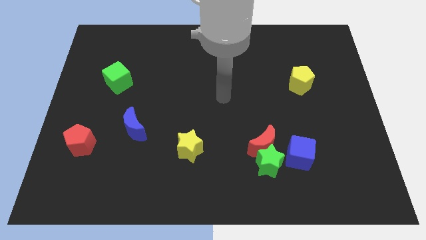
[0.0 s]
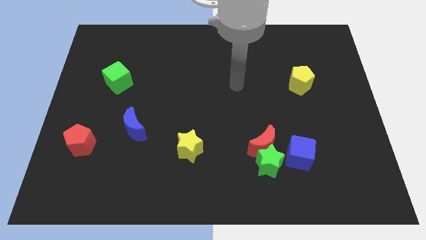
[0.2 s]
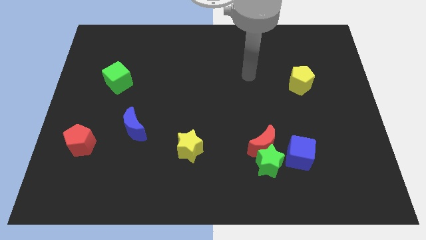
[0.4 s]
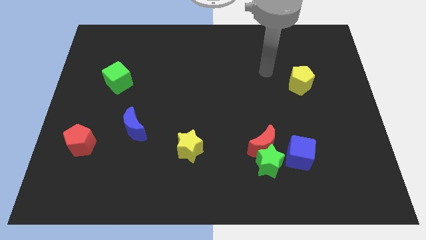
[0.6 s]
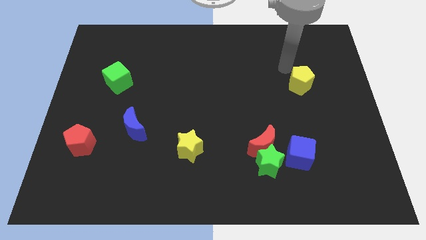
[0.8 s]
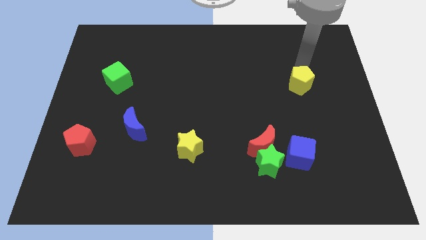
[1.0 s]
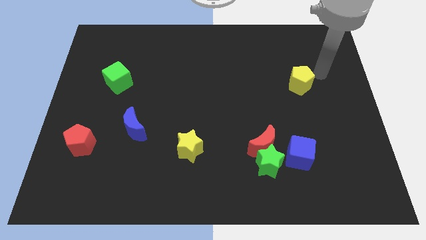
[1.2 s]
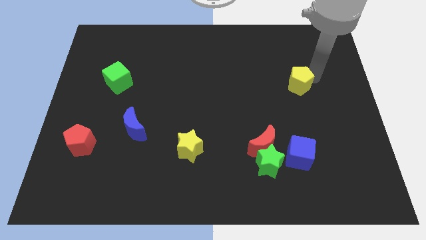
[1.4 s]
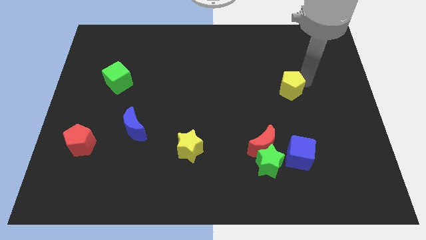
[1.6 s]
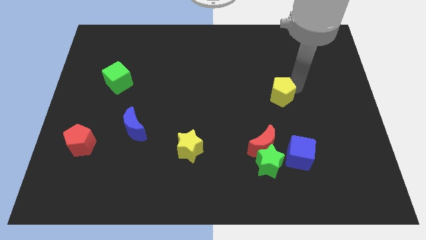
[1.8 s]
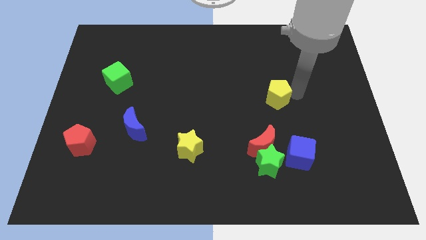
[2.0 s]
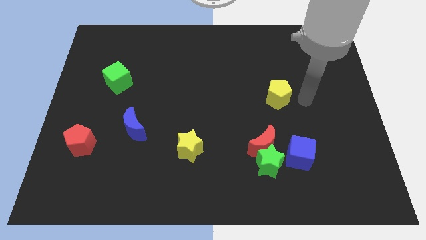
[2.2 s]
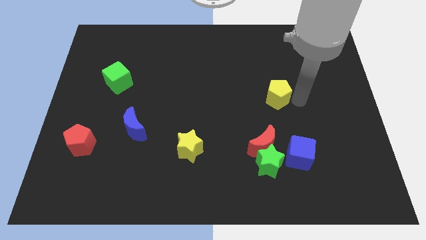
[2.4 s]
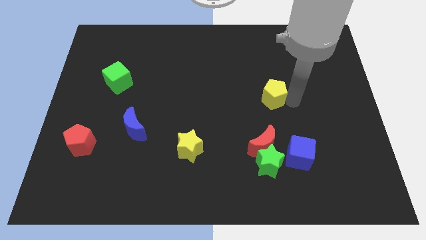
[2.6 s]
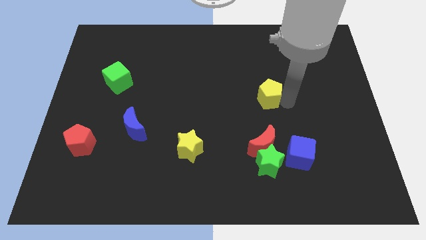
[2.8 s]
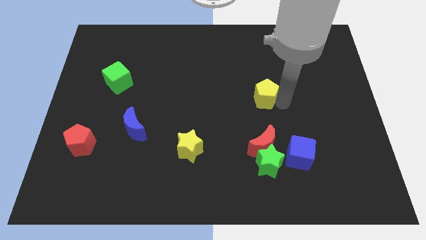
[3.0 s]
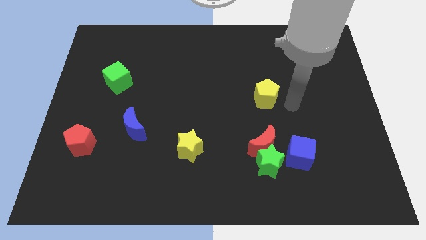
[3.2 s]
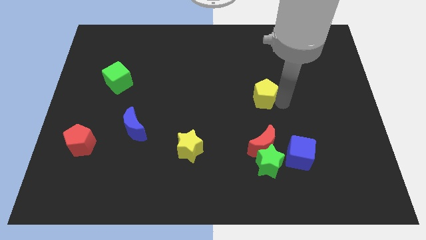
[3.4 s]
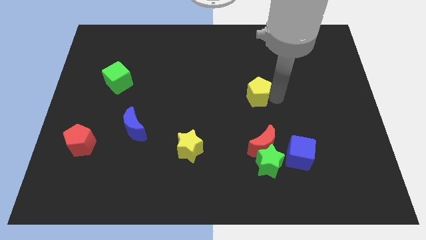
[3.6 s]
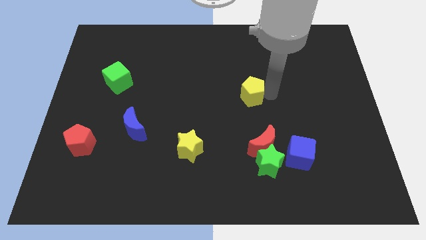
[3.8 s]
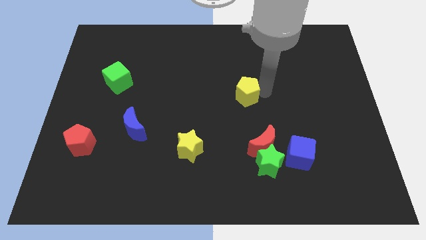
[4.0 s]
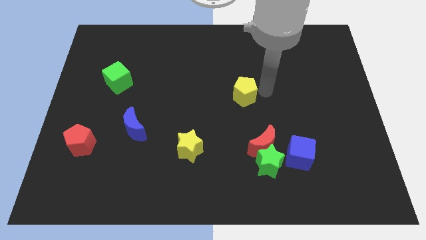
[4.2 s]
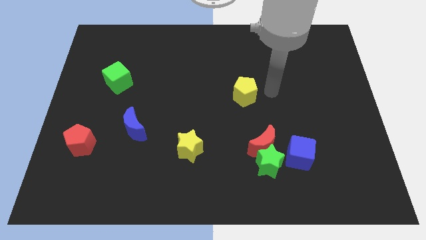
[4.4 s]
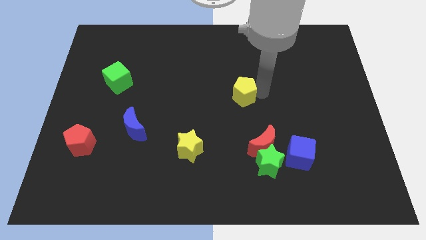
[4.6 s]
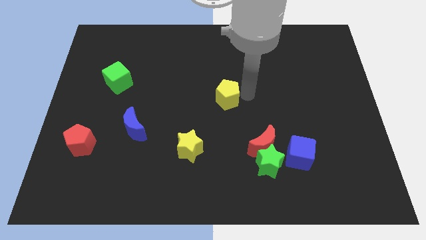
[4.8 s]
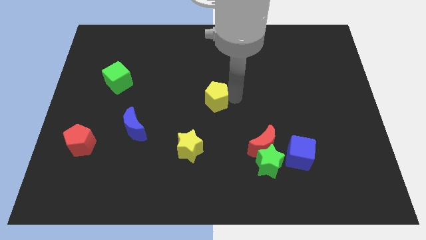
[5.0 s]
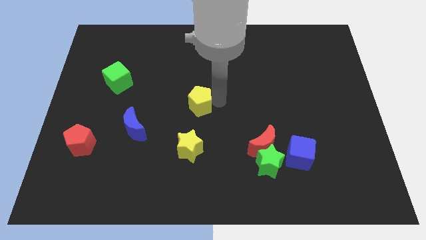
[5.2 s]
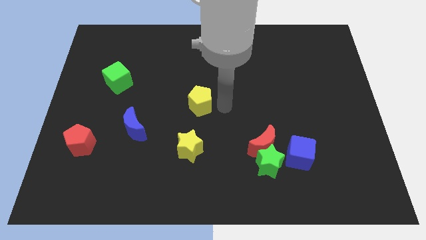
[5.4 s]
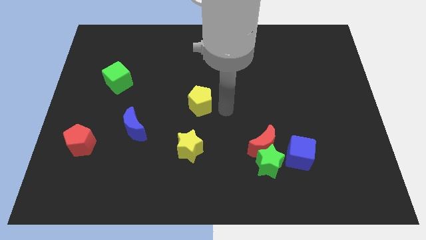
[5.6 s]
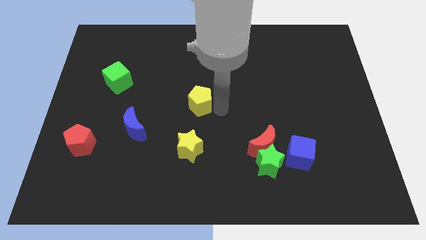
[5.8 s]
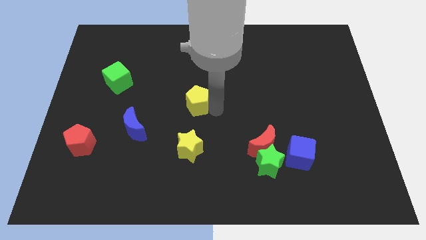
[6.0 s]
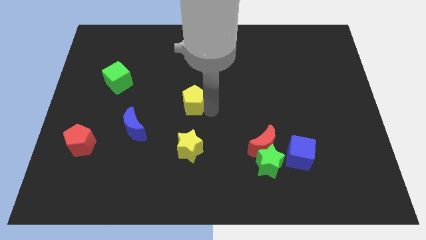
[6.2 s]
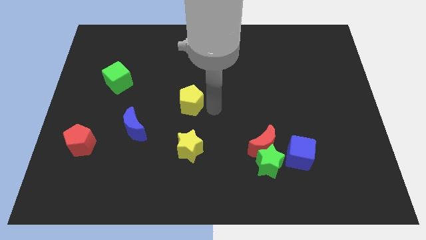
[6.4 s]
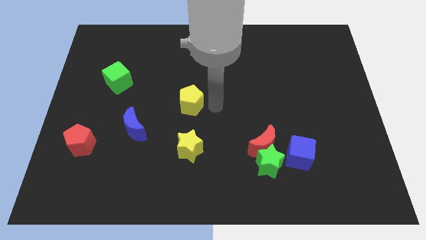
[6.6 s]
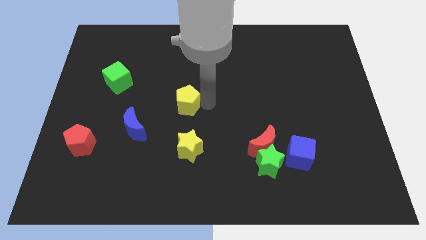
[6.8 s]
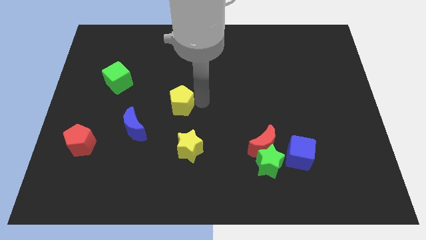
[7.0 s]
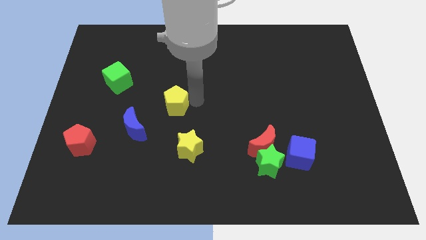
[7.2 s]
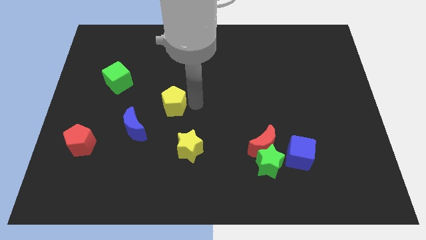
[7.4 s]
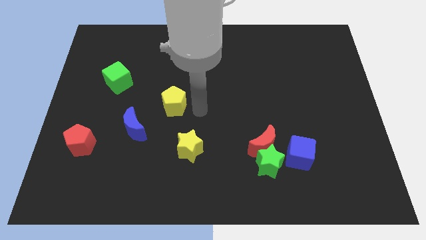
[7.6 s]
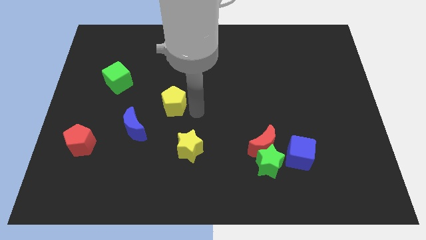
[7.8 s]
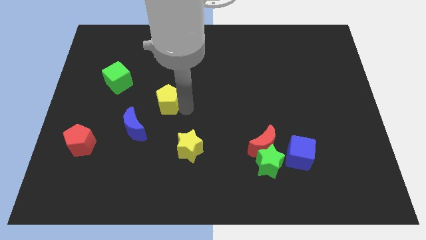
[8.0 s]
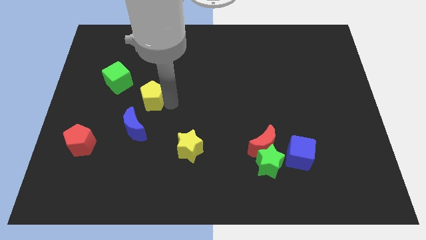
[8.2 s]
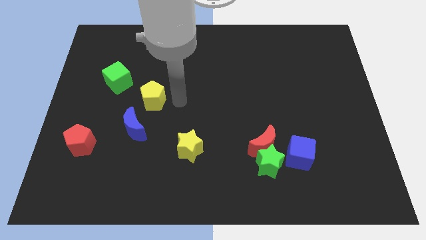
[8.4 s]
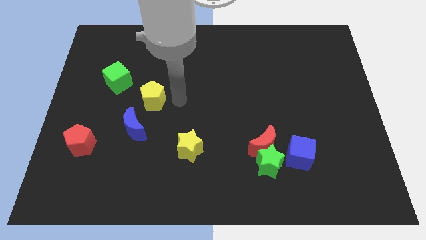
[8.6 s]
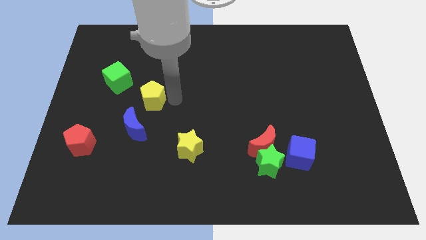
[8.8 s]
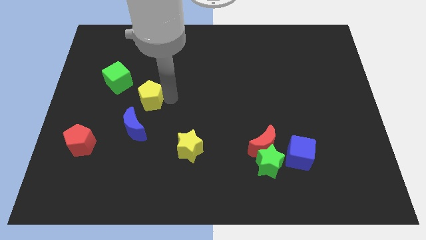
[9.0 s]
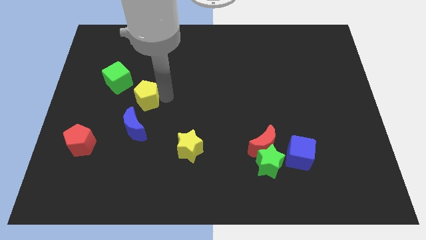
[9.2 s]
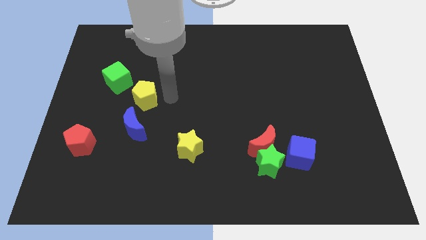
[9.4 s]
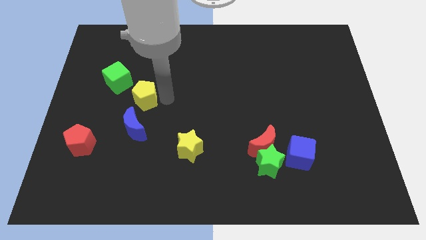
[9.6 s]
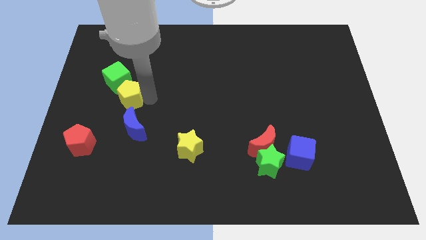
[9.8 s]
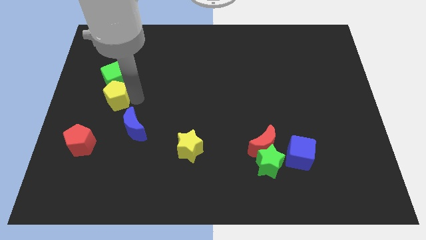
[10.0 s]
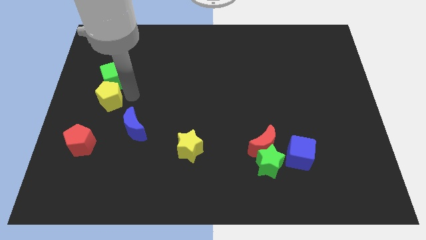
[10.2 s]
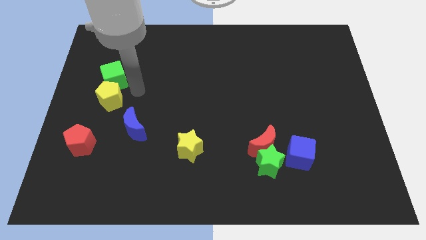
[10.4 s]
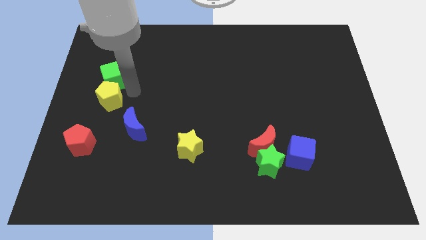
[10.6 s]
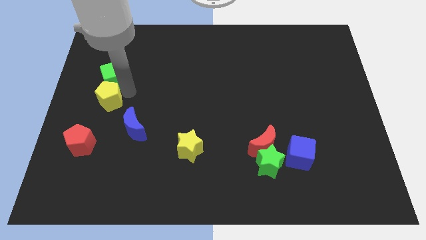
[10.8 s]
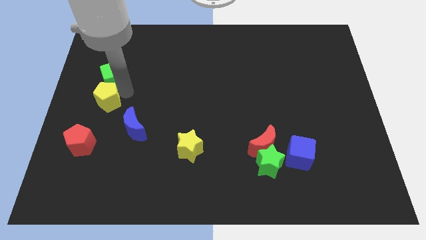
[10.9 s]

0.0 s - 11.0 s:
slide the yellow pentagon to the center left

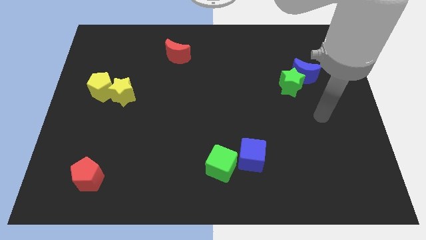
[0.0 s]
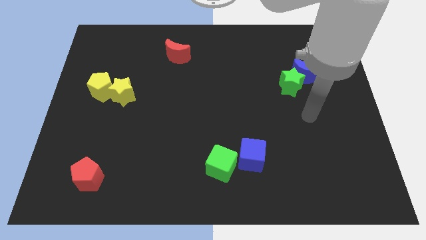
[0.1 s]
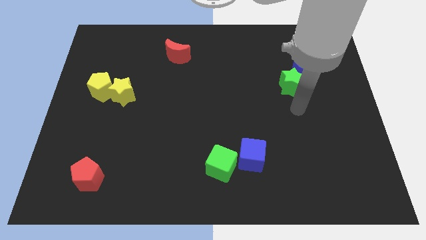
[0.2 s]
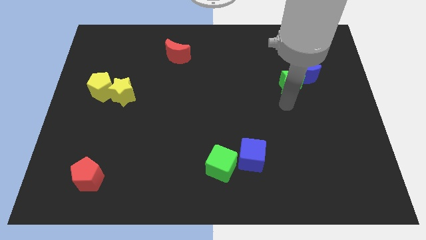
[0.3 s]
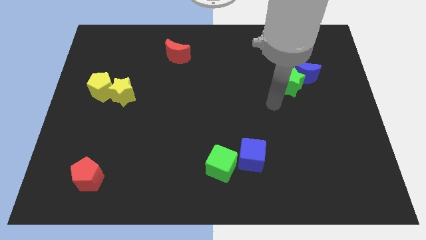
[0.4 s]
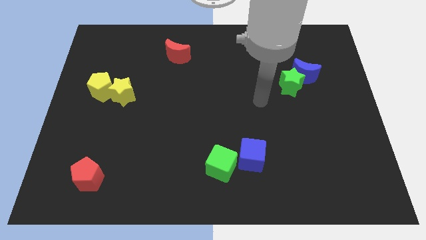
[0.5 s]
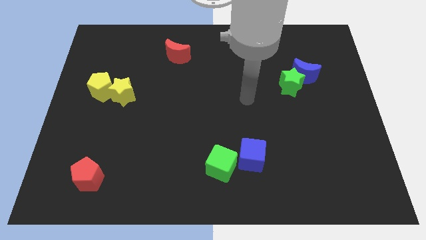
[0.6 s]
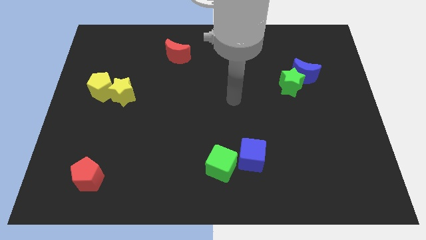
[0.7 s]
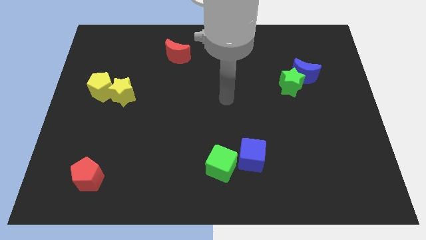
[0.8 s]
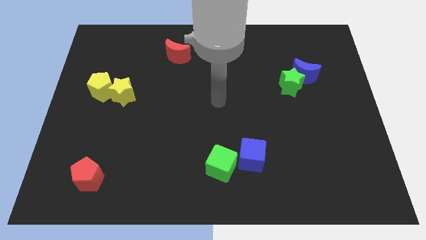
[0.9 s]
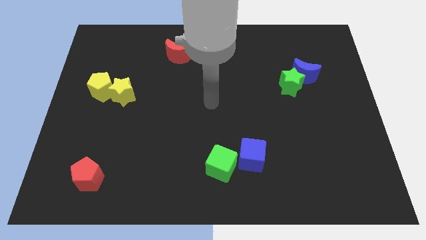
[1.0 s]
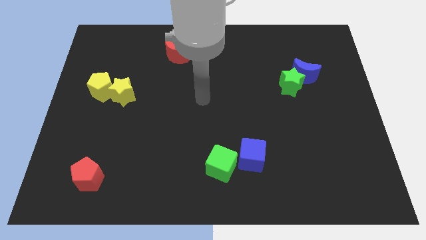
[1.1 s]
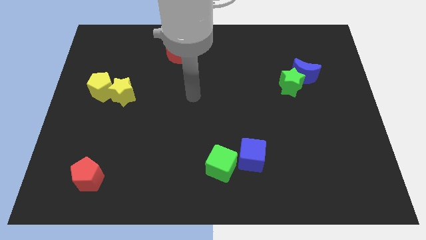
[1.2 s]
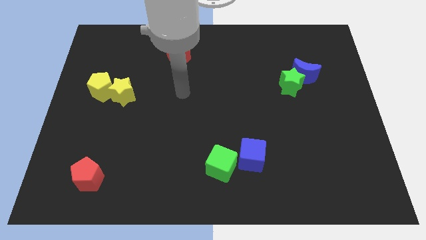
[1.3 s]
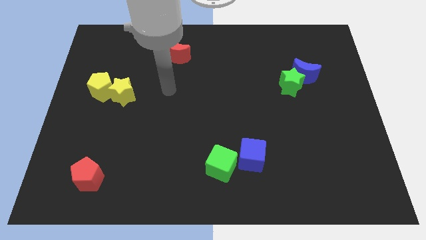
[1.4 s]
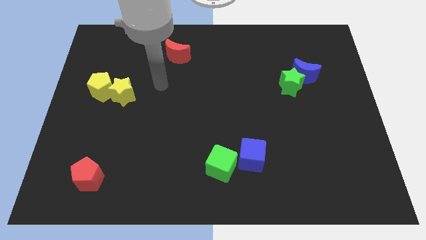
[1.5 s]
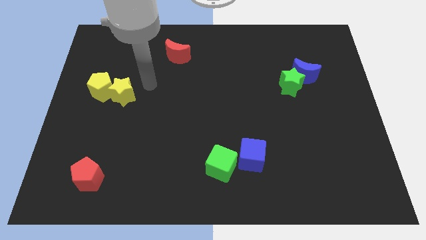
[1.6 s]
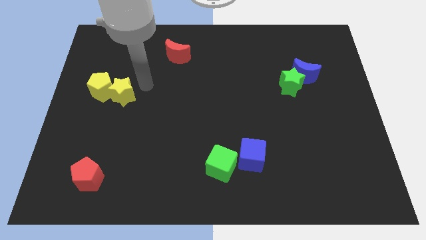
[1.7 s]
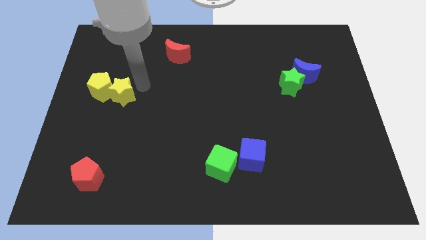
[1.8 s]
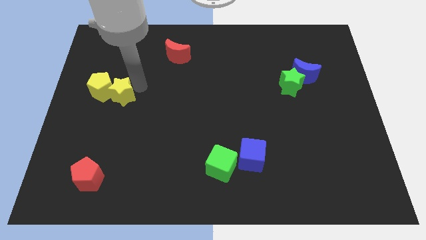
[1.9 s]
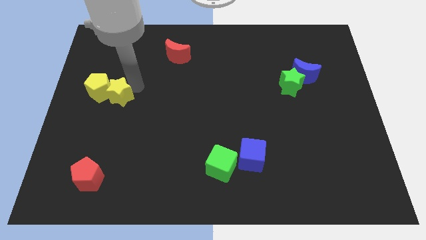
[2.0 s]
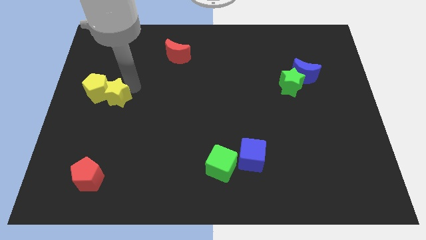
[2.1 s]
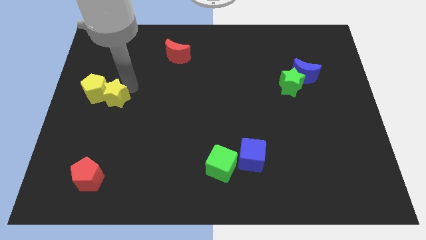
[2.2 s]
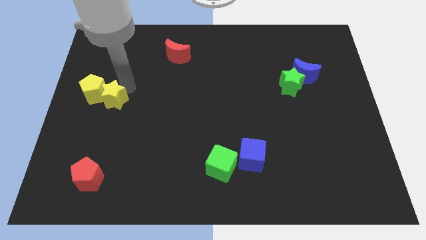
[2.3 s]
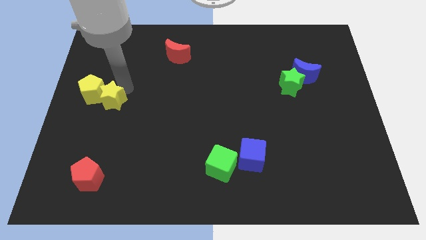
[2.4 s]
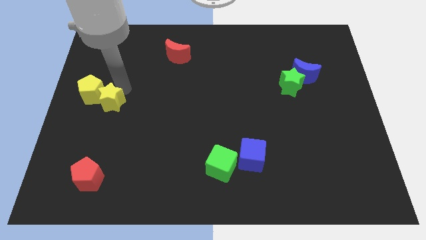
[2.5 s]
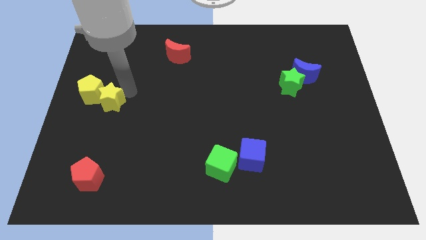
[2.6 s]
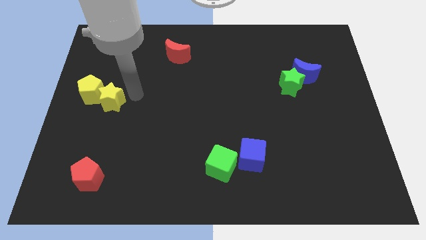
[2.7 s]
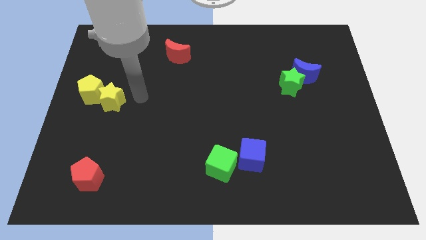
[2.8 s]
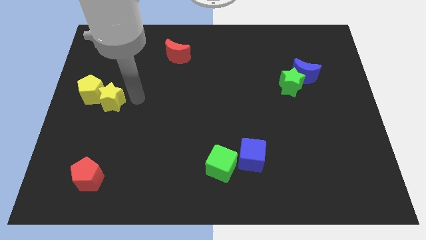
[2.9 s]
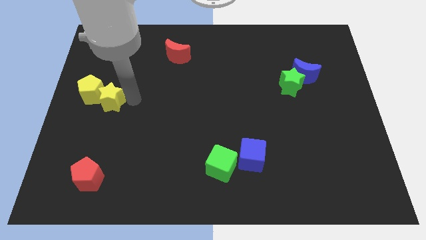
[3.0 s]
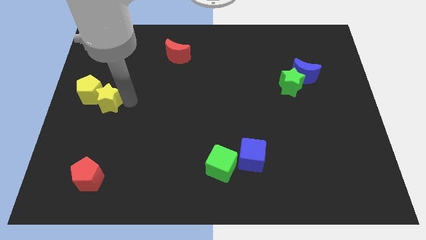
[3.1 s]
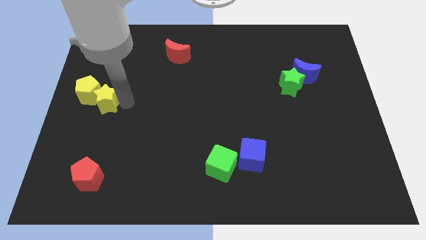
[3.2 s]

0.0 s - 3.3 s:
slide the yellow star to the left side
